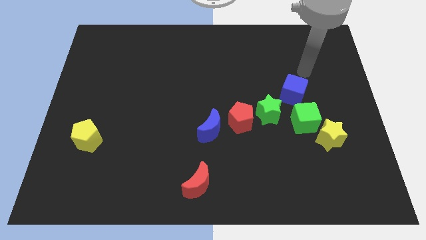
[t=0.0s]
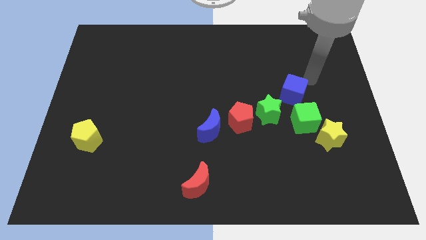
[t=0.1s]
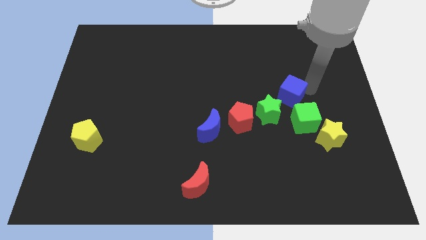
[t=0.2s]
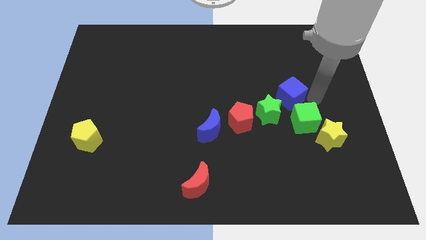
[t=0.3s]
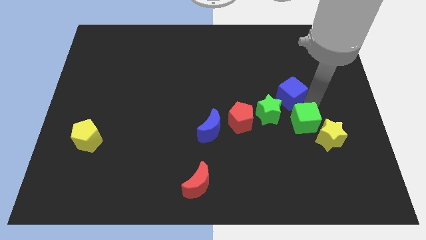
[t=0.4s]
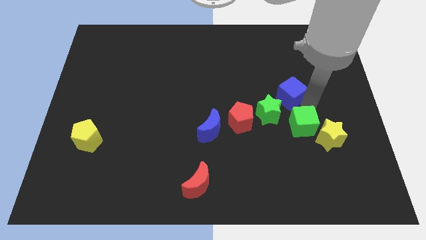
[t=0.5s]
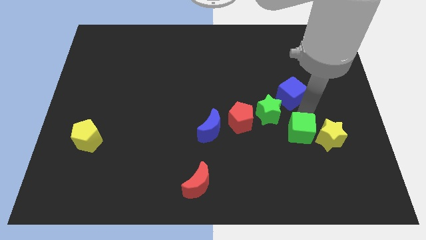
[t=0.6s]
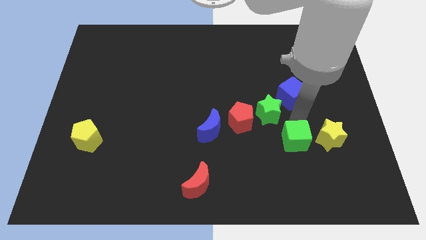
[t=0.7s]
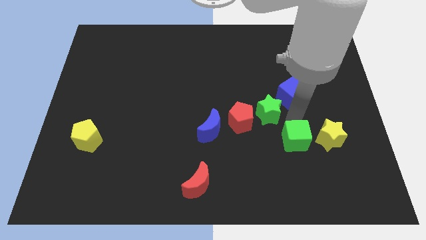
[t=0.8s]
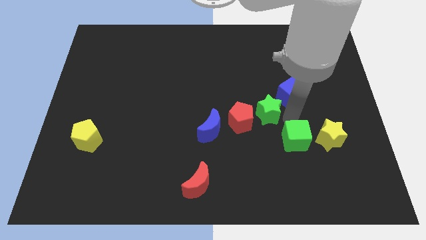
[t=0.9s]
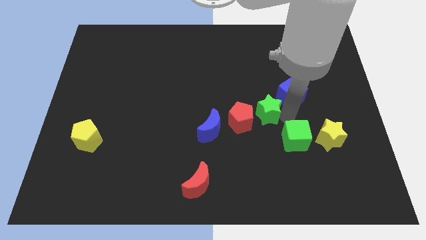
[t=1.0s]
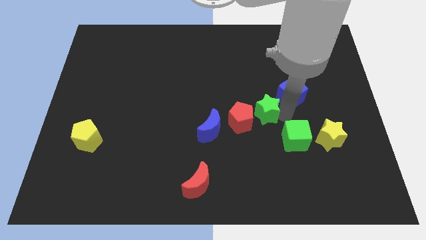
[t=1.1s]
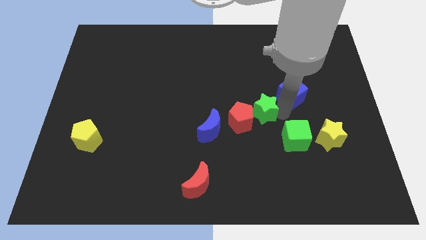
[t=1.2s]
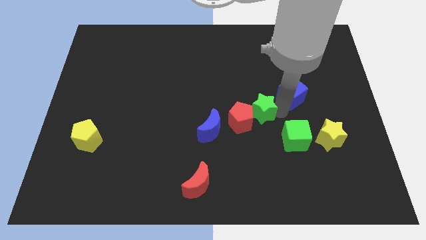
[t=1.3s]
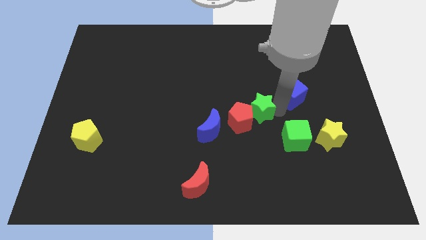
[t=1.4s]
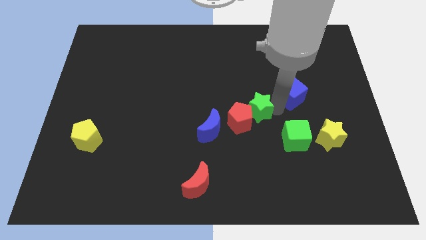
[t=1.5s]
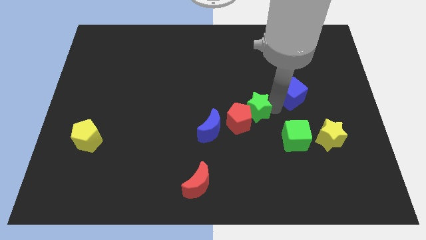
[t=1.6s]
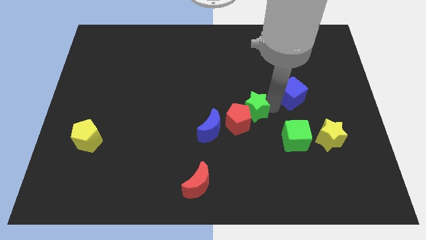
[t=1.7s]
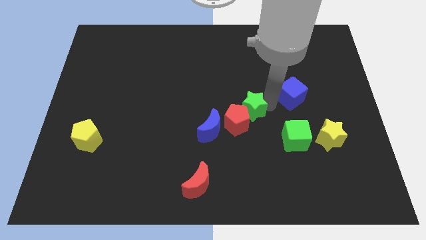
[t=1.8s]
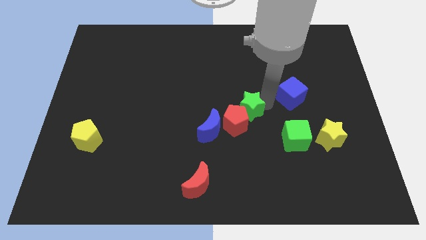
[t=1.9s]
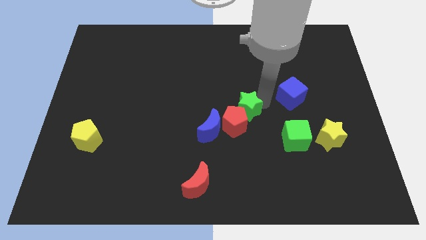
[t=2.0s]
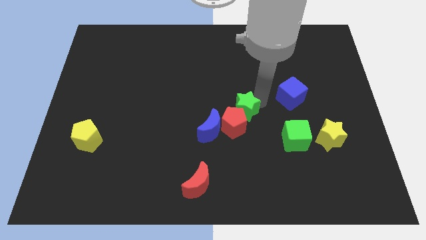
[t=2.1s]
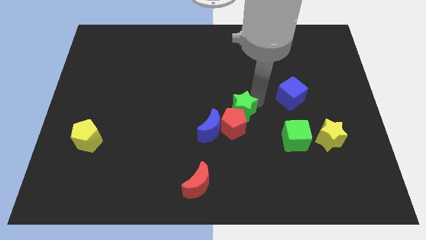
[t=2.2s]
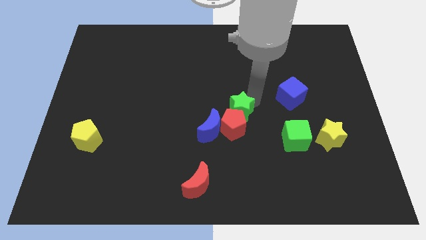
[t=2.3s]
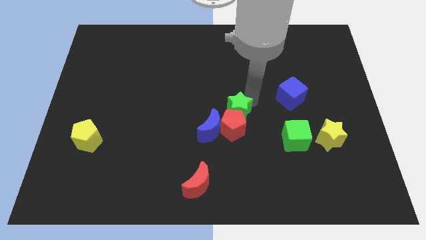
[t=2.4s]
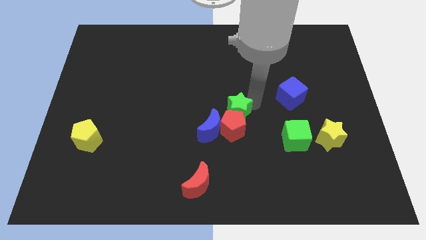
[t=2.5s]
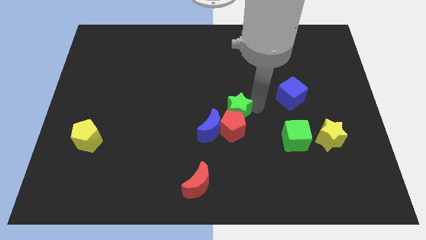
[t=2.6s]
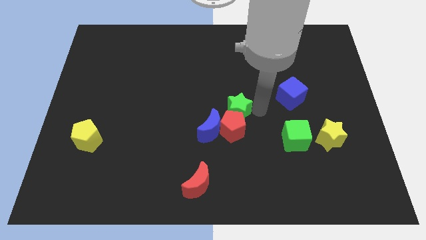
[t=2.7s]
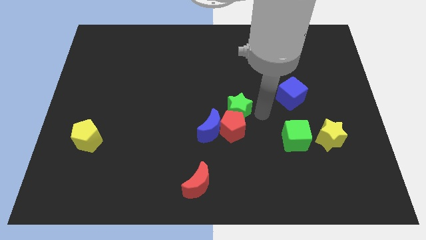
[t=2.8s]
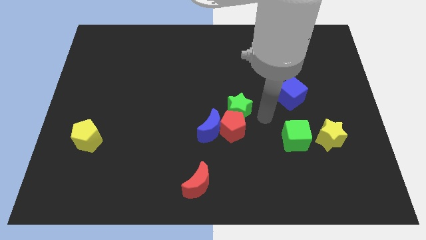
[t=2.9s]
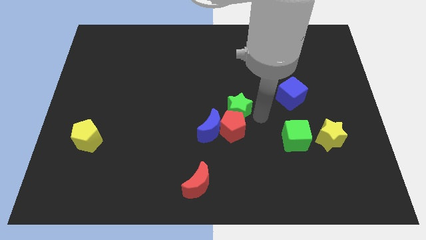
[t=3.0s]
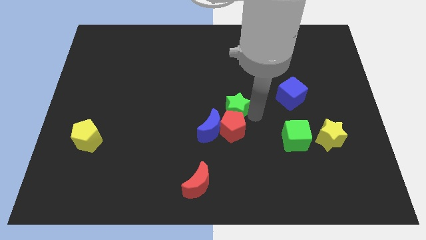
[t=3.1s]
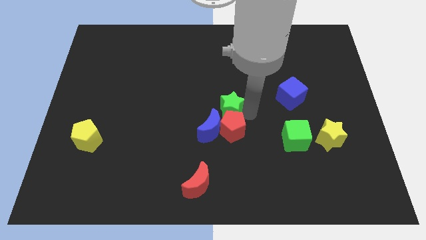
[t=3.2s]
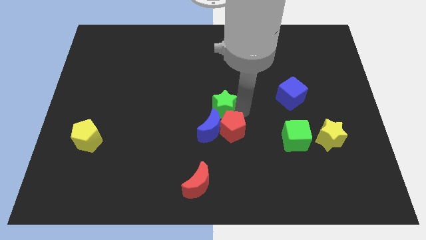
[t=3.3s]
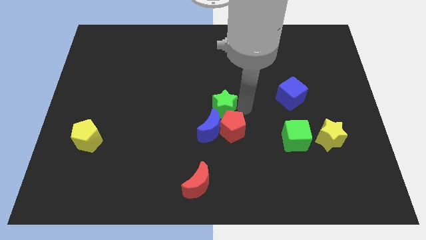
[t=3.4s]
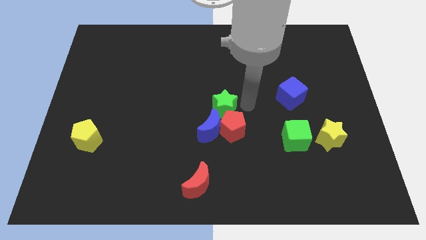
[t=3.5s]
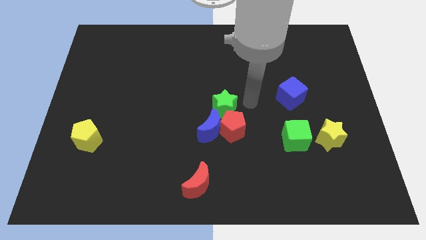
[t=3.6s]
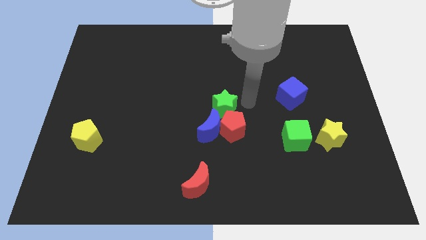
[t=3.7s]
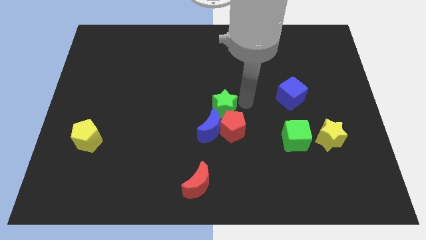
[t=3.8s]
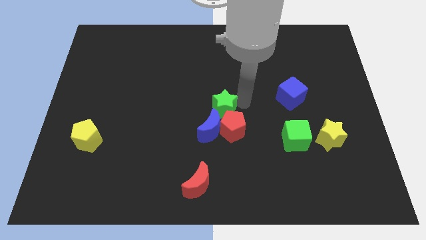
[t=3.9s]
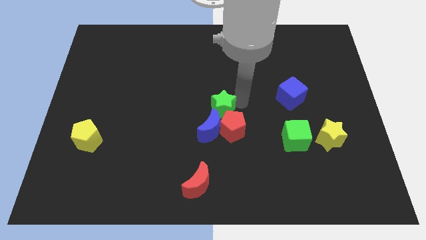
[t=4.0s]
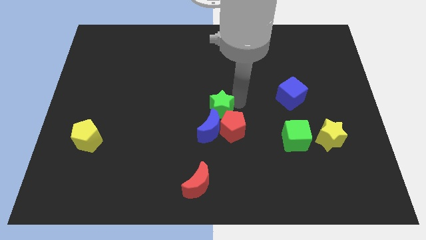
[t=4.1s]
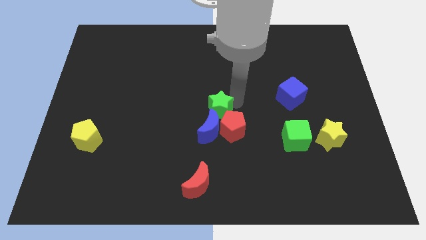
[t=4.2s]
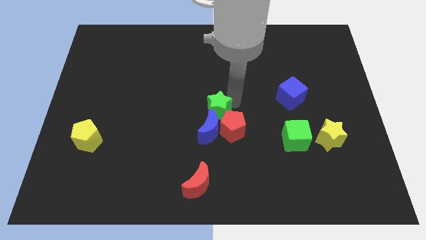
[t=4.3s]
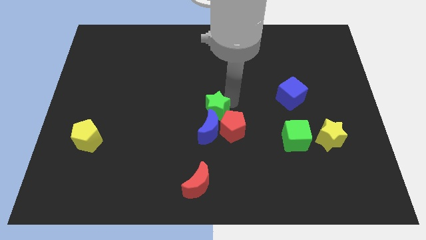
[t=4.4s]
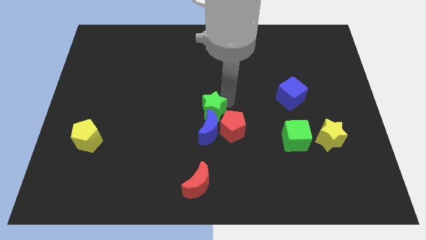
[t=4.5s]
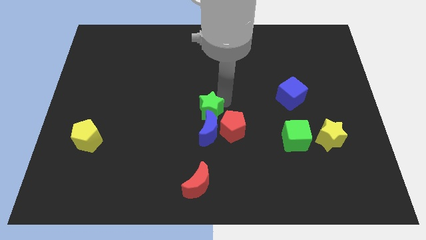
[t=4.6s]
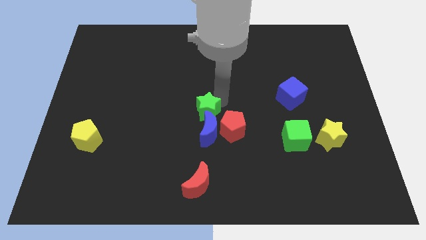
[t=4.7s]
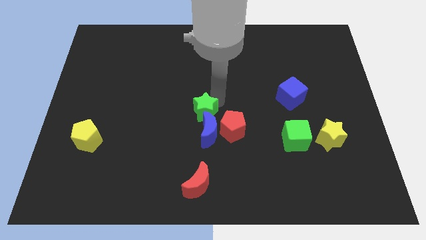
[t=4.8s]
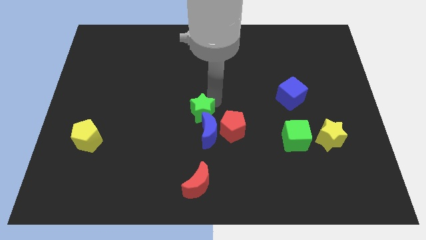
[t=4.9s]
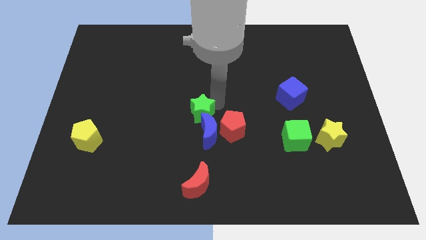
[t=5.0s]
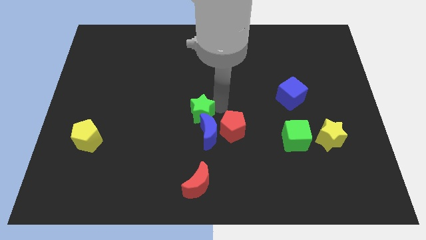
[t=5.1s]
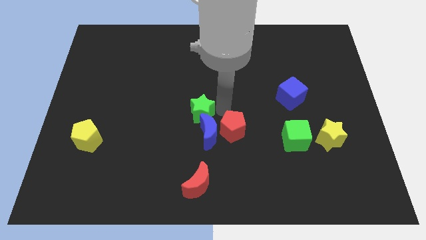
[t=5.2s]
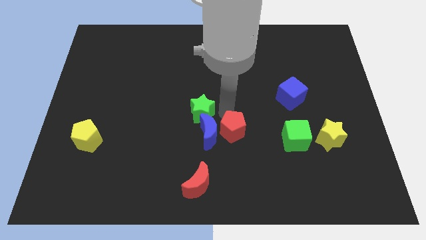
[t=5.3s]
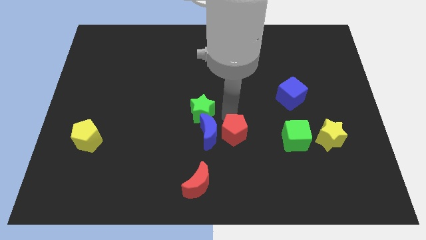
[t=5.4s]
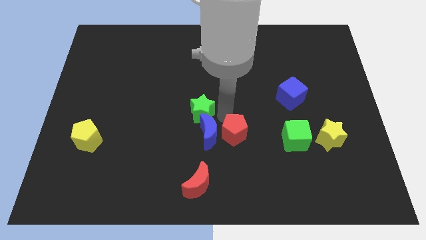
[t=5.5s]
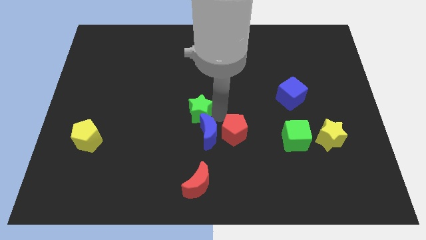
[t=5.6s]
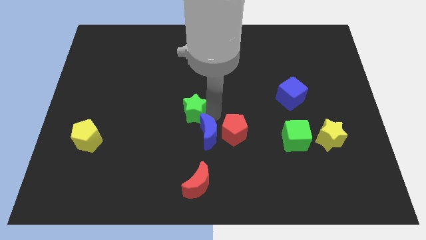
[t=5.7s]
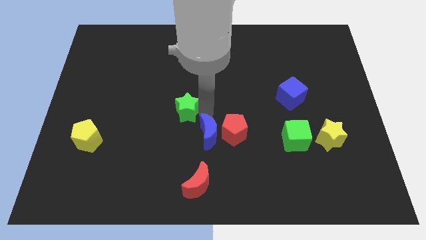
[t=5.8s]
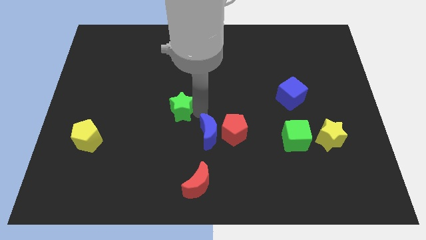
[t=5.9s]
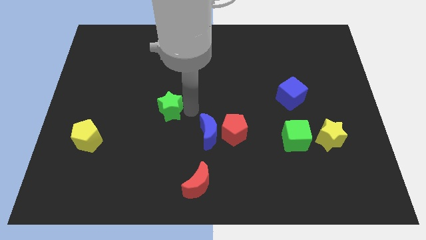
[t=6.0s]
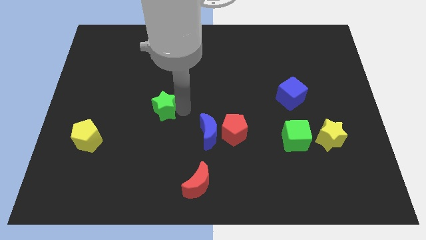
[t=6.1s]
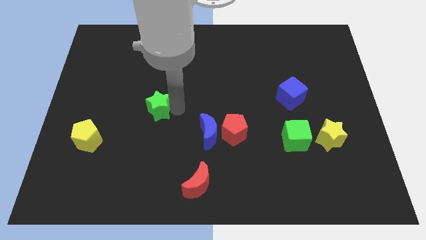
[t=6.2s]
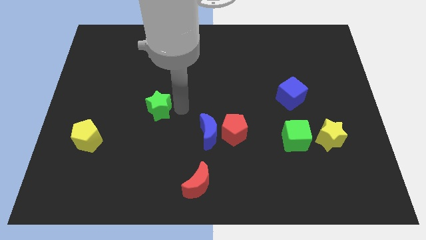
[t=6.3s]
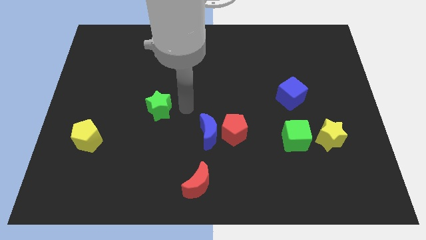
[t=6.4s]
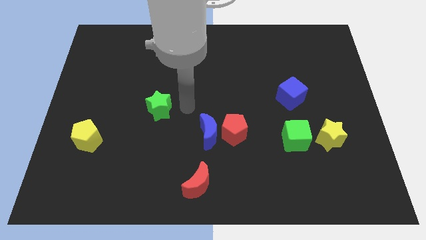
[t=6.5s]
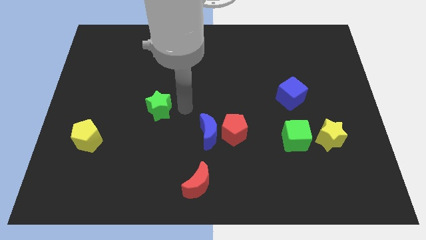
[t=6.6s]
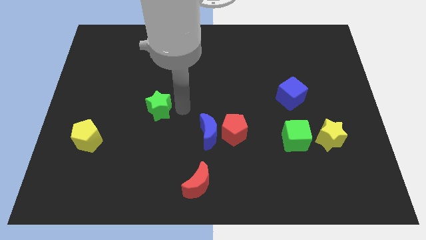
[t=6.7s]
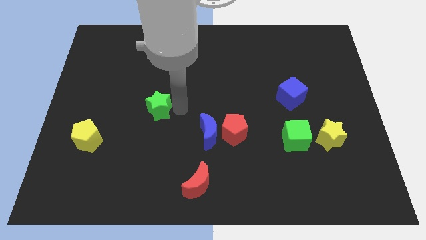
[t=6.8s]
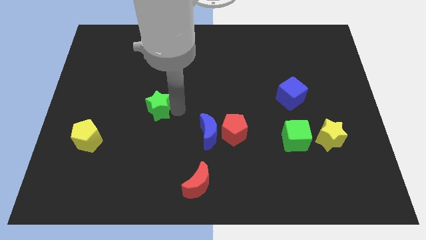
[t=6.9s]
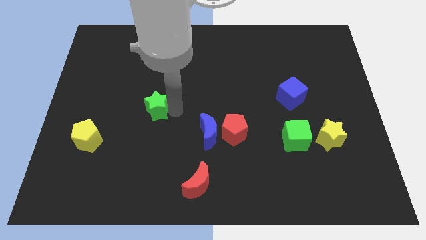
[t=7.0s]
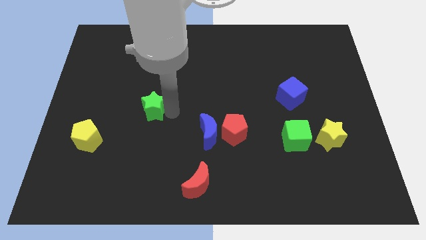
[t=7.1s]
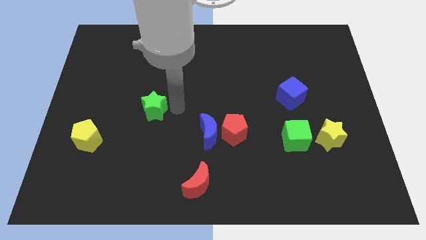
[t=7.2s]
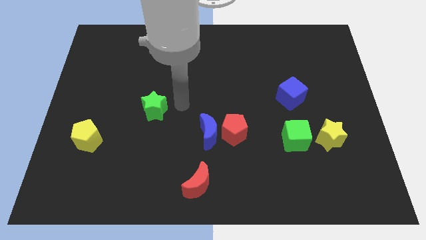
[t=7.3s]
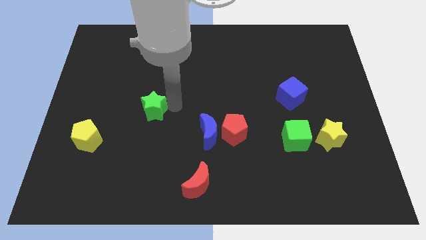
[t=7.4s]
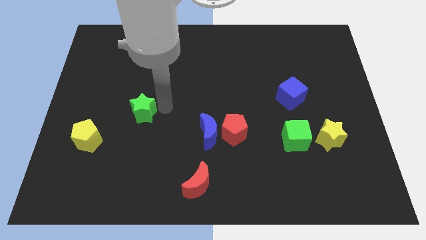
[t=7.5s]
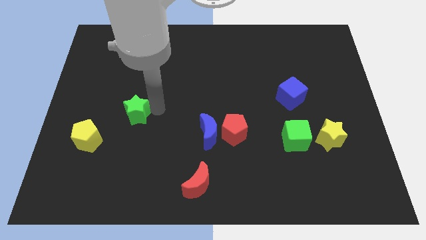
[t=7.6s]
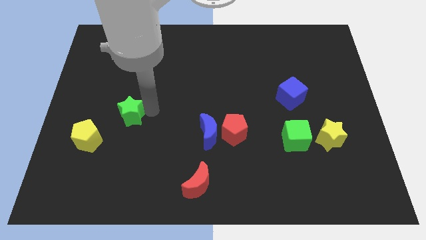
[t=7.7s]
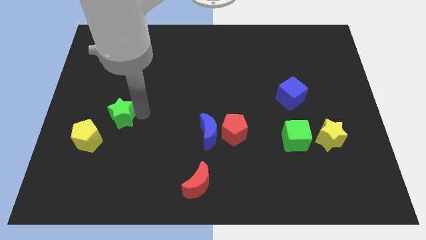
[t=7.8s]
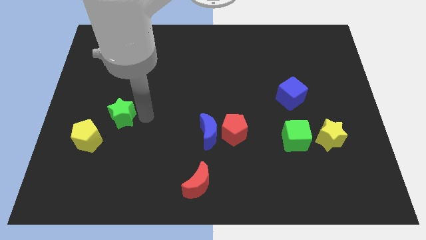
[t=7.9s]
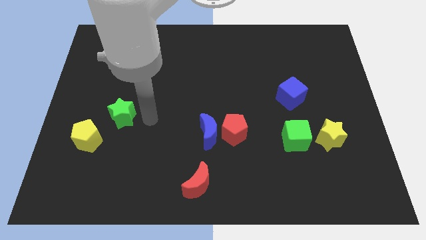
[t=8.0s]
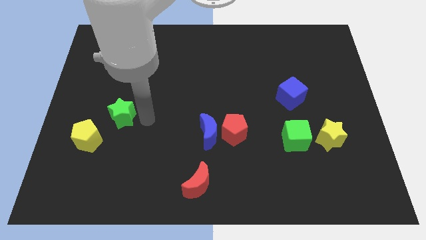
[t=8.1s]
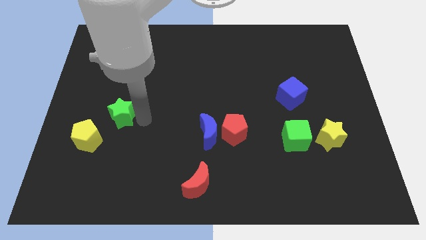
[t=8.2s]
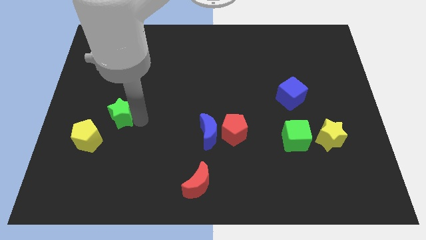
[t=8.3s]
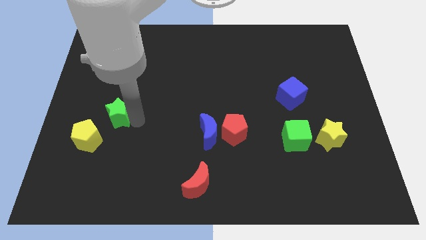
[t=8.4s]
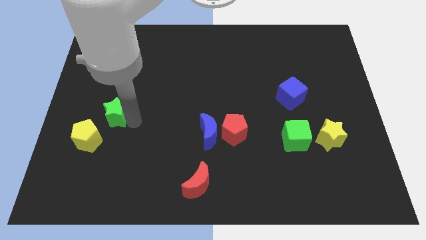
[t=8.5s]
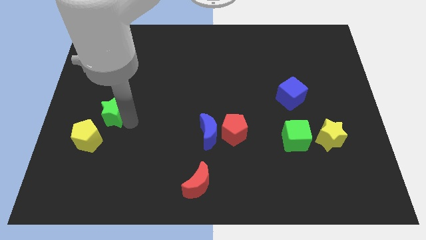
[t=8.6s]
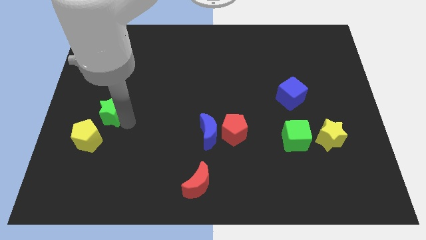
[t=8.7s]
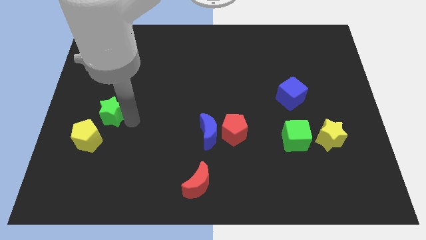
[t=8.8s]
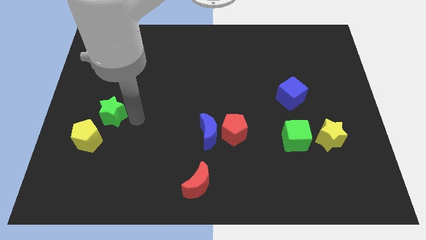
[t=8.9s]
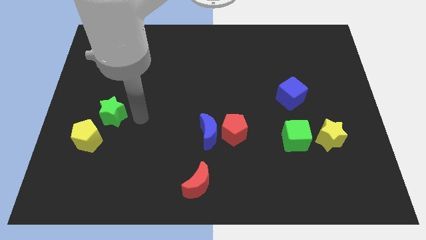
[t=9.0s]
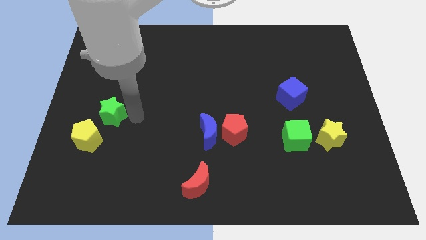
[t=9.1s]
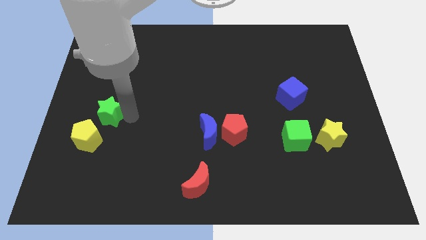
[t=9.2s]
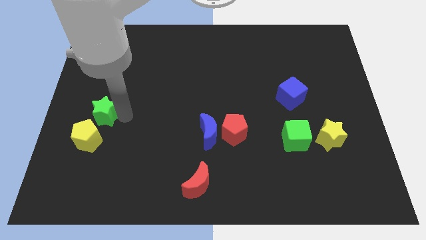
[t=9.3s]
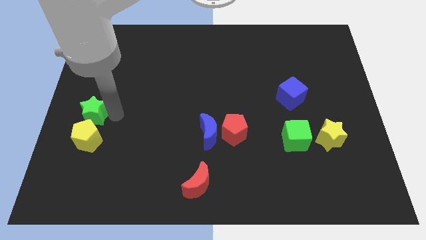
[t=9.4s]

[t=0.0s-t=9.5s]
put the green star to the center left
